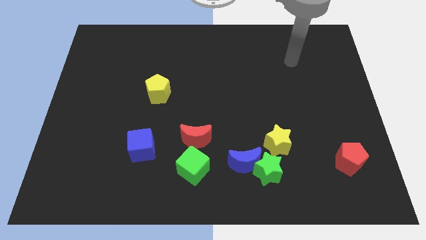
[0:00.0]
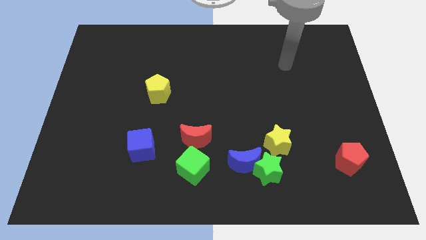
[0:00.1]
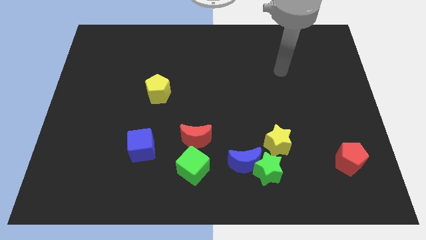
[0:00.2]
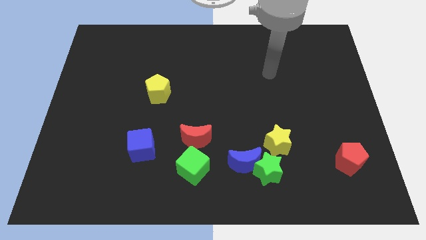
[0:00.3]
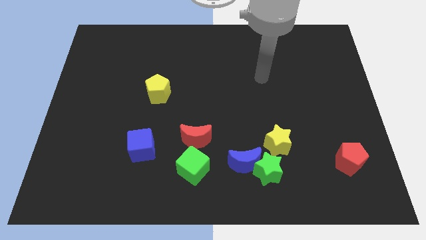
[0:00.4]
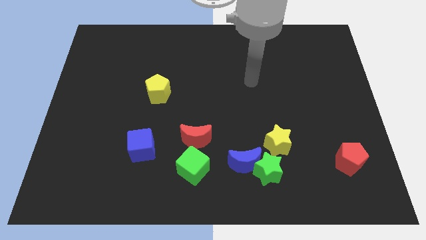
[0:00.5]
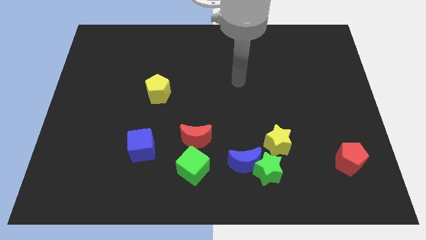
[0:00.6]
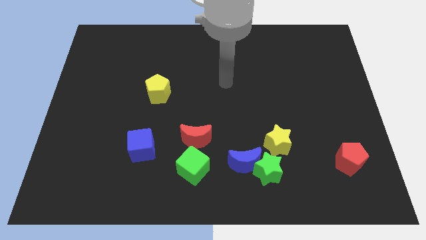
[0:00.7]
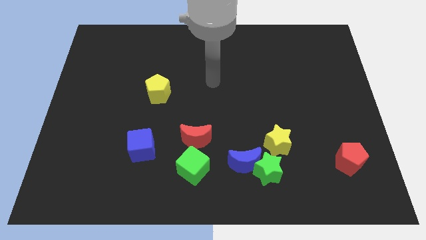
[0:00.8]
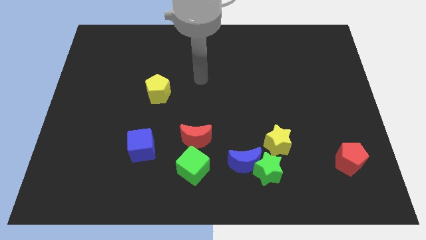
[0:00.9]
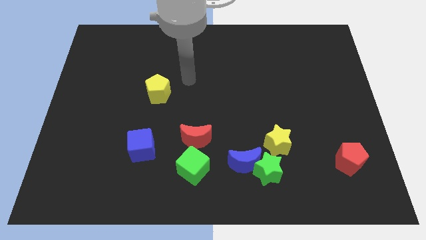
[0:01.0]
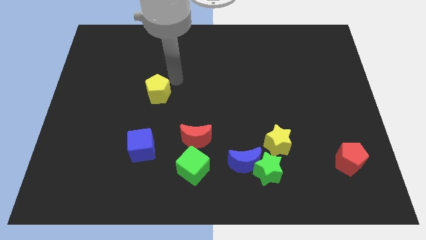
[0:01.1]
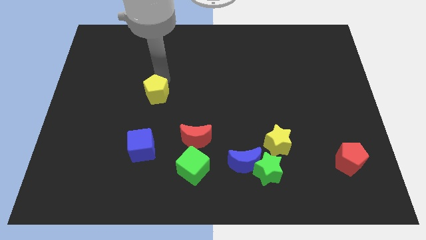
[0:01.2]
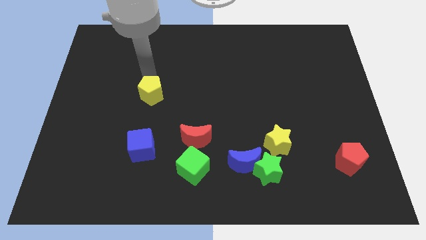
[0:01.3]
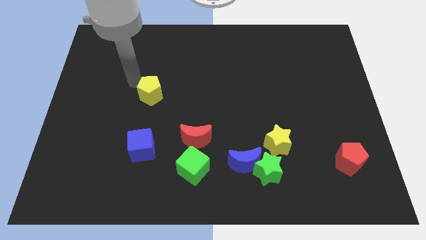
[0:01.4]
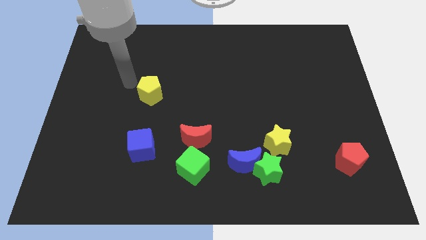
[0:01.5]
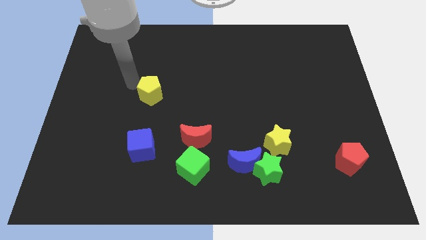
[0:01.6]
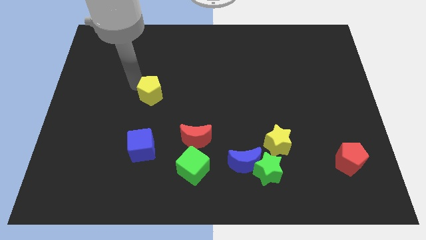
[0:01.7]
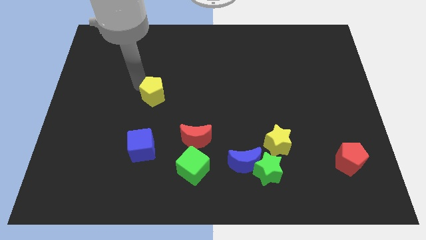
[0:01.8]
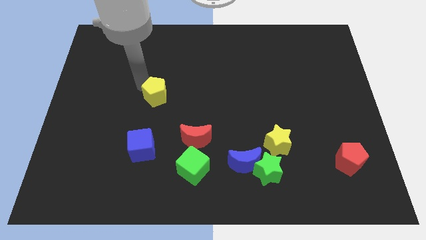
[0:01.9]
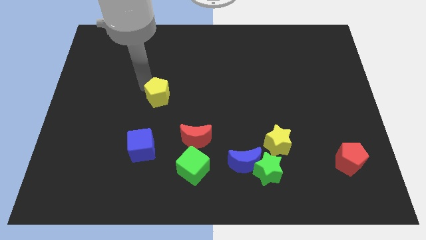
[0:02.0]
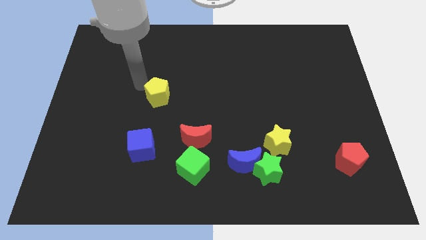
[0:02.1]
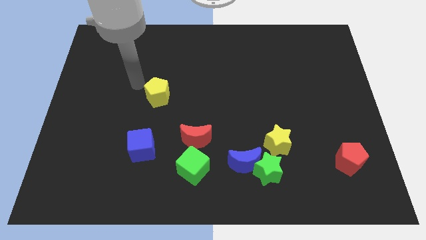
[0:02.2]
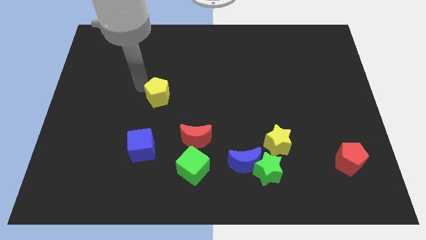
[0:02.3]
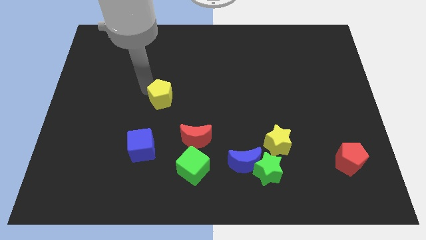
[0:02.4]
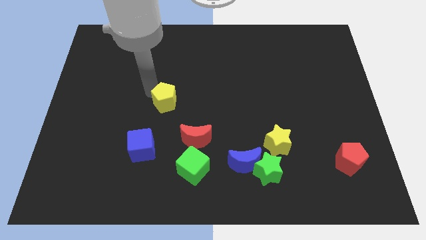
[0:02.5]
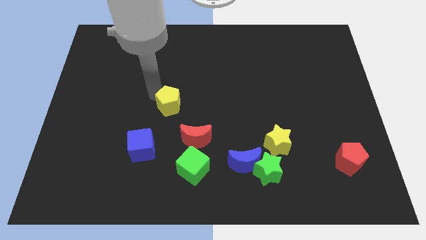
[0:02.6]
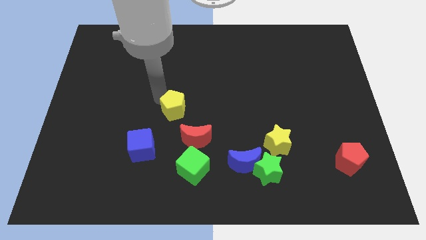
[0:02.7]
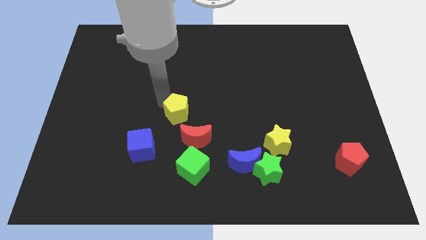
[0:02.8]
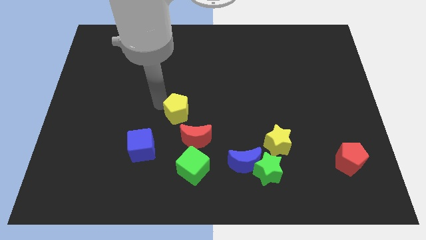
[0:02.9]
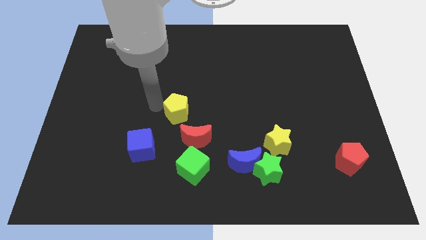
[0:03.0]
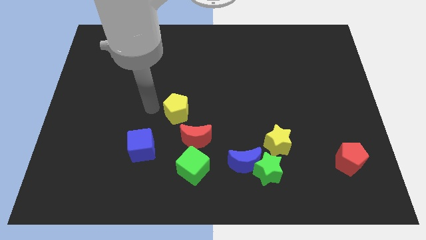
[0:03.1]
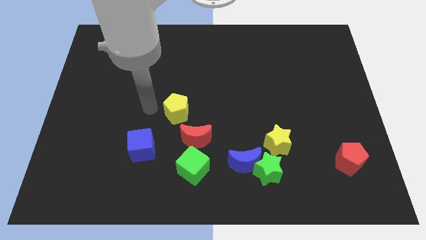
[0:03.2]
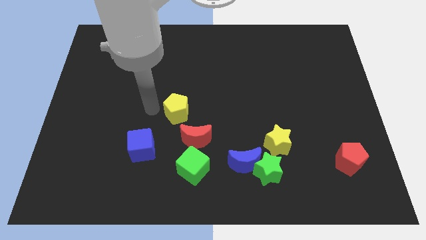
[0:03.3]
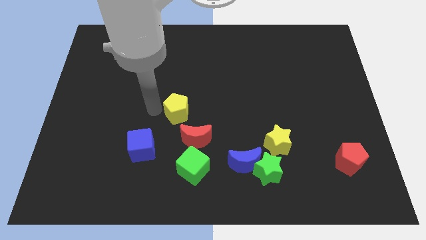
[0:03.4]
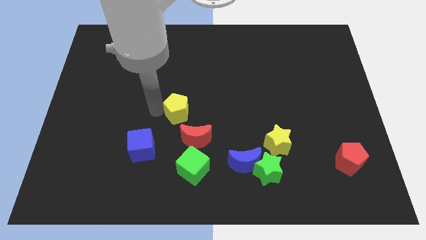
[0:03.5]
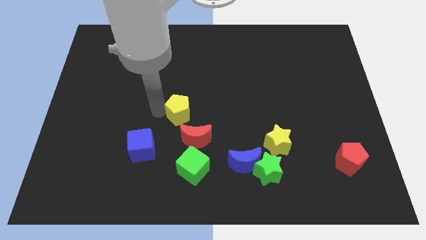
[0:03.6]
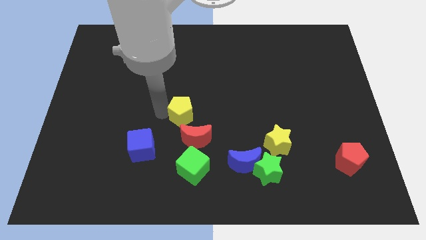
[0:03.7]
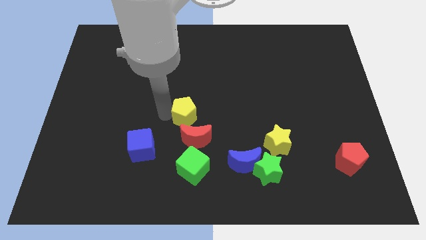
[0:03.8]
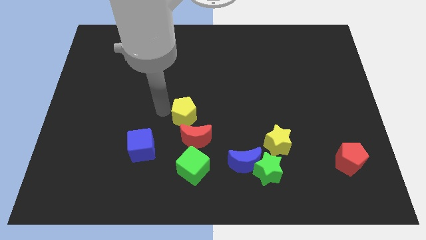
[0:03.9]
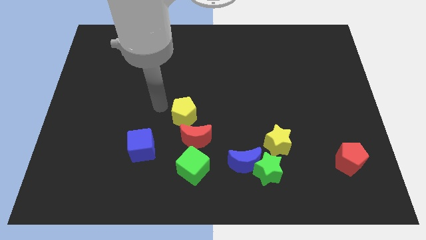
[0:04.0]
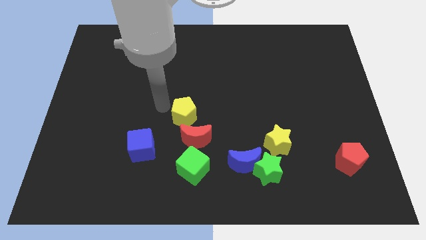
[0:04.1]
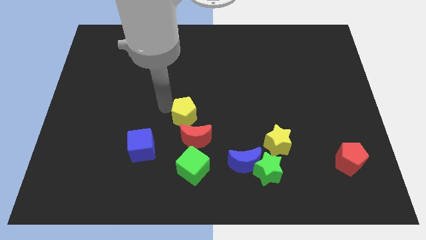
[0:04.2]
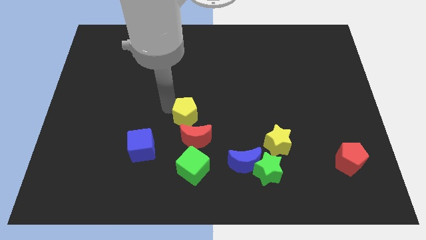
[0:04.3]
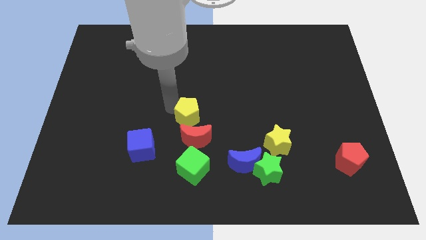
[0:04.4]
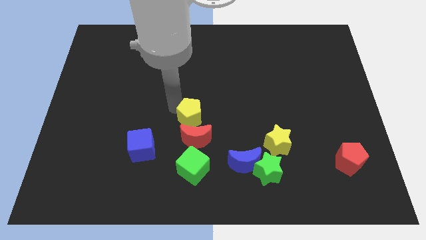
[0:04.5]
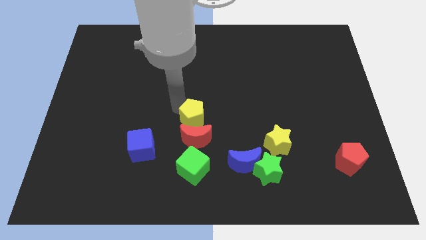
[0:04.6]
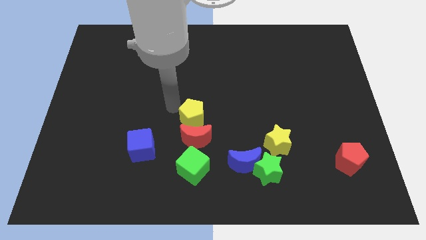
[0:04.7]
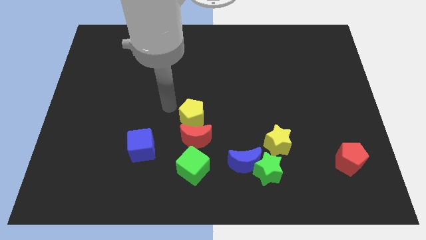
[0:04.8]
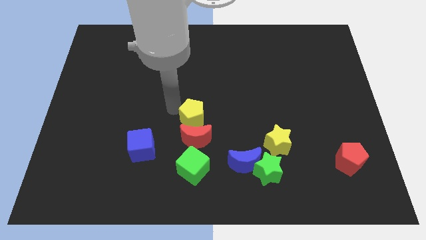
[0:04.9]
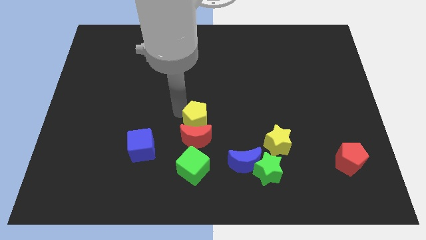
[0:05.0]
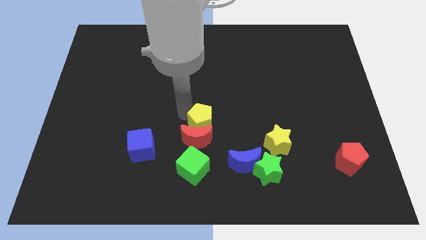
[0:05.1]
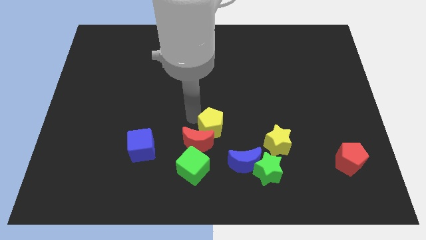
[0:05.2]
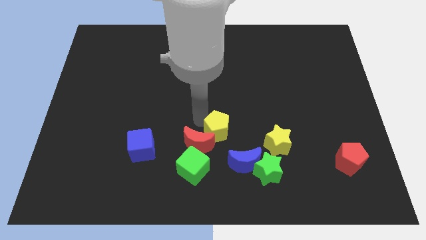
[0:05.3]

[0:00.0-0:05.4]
put the yellow pentagon just left of the yellow star

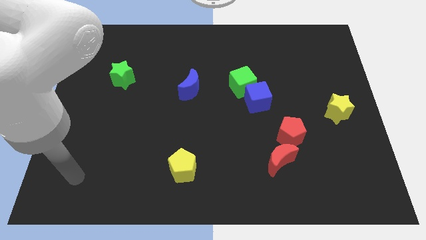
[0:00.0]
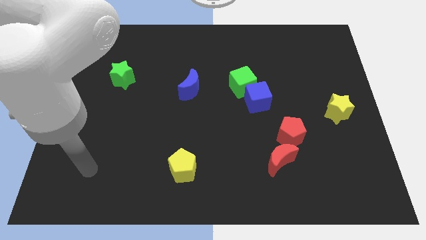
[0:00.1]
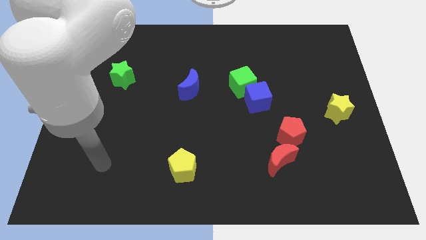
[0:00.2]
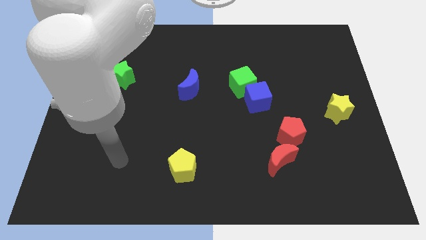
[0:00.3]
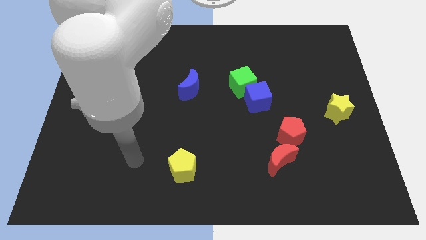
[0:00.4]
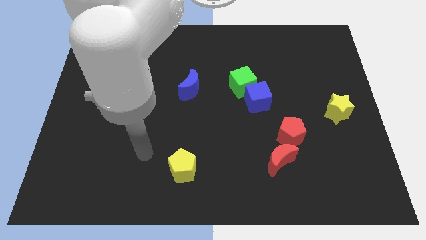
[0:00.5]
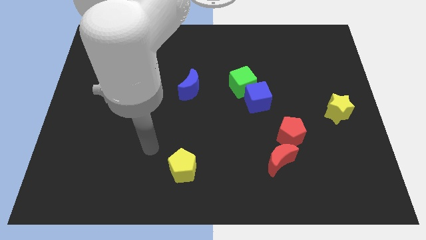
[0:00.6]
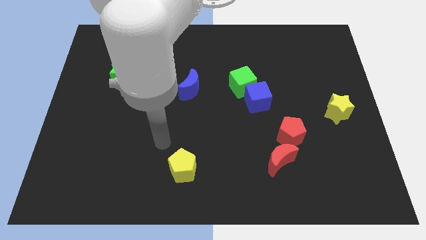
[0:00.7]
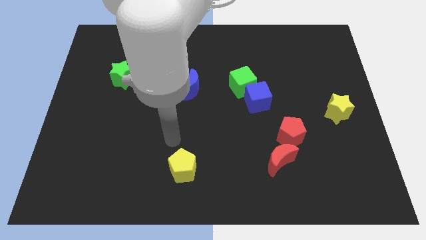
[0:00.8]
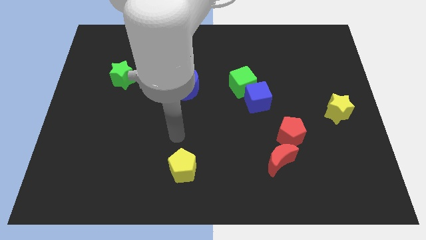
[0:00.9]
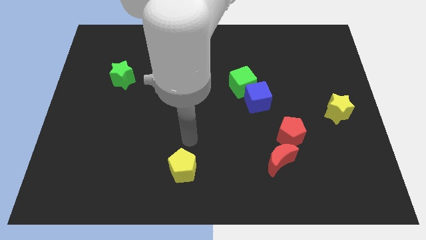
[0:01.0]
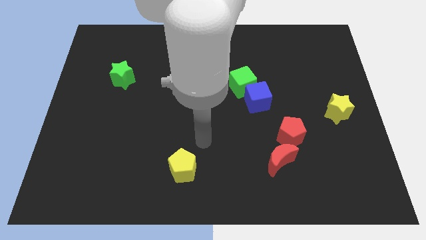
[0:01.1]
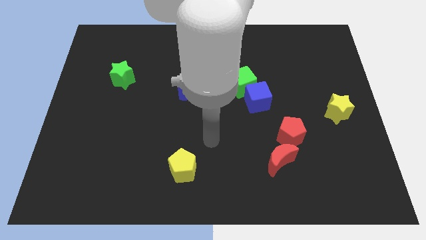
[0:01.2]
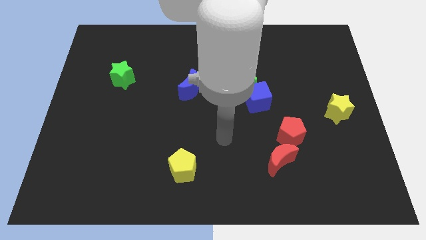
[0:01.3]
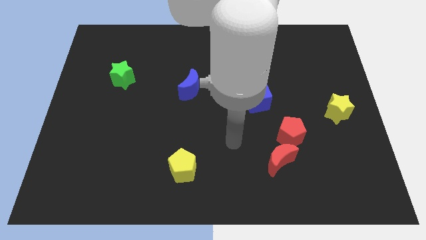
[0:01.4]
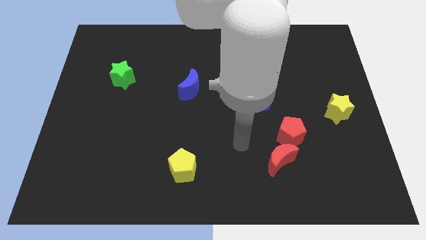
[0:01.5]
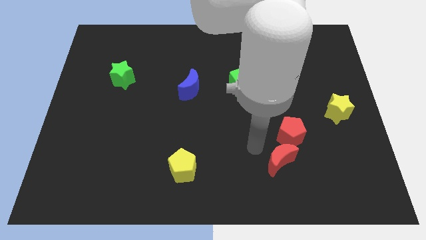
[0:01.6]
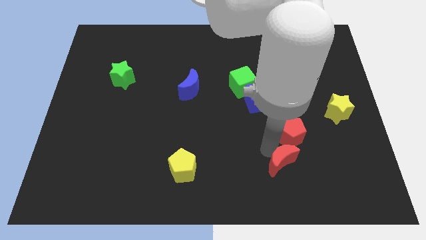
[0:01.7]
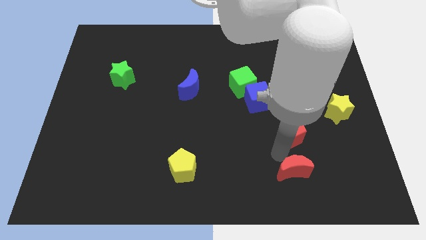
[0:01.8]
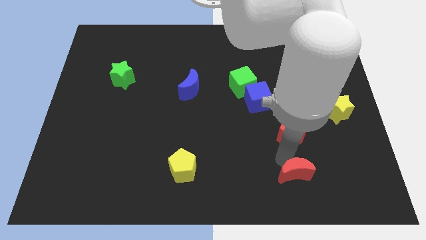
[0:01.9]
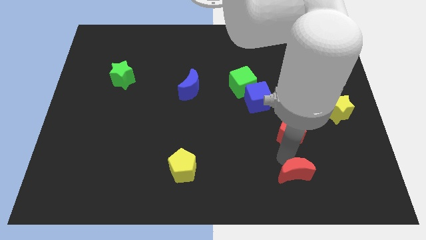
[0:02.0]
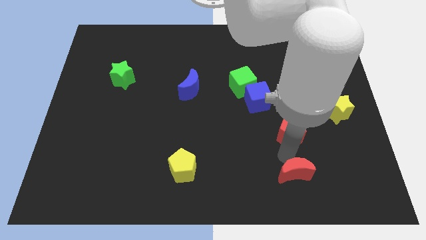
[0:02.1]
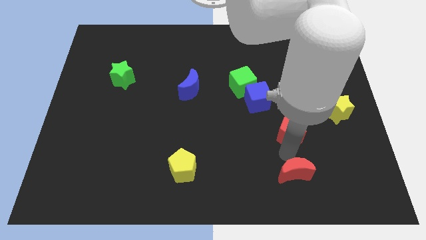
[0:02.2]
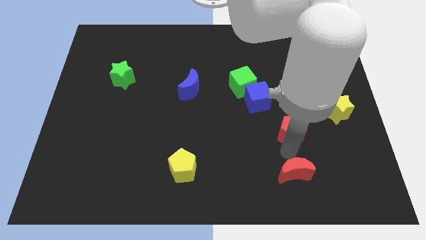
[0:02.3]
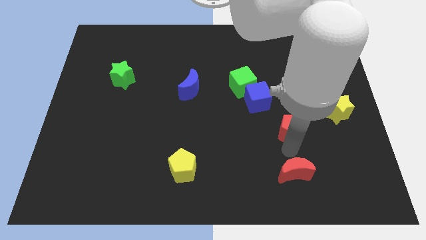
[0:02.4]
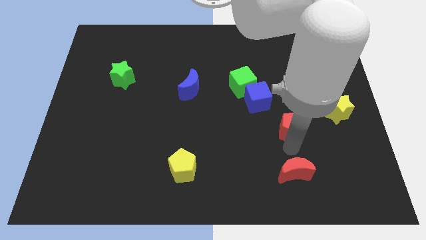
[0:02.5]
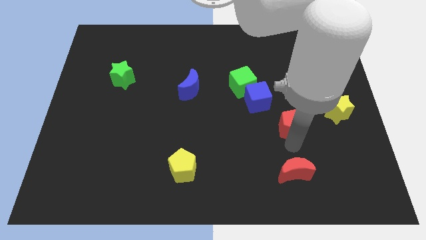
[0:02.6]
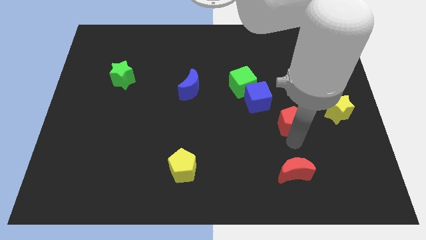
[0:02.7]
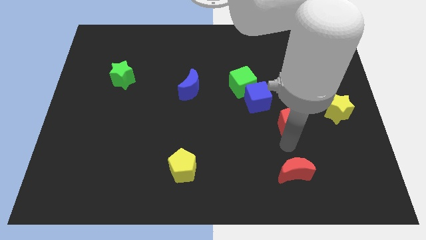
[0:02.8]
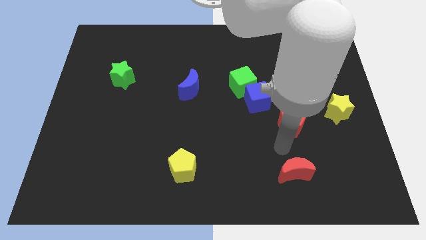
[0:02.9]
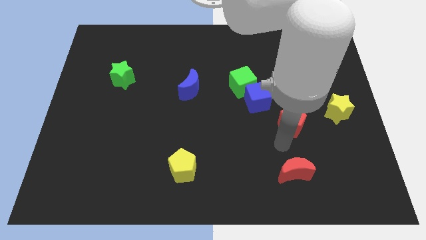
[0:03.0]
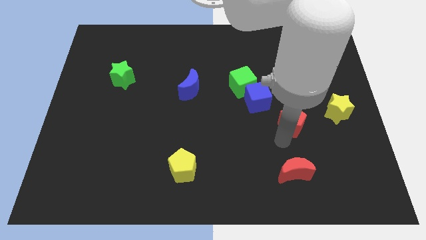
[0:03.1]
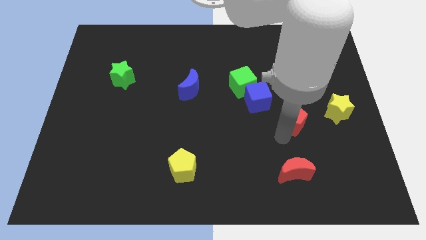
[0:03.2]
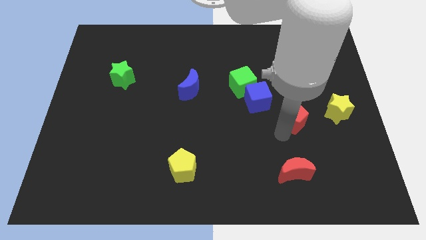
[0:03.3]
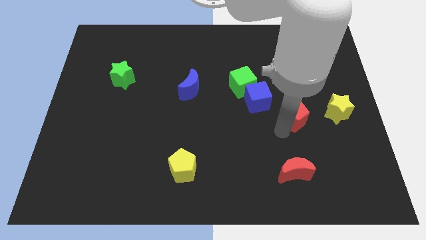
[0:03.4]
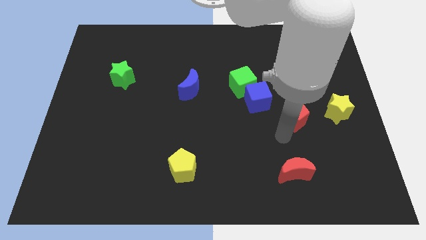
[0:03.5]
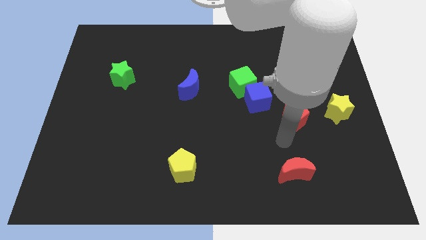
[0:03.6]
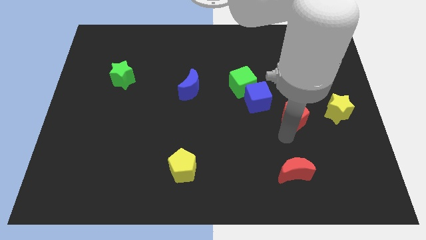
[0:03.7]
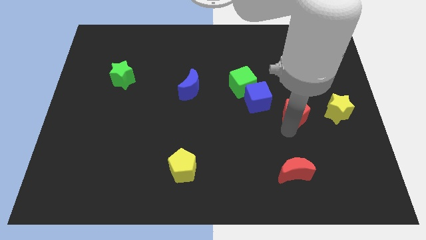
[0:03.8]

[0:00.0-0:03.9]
push the red pentagon right of the blue cube
